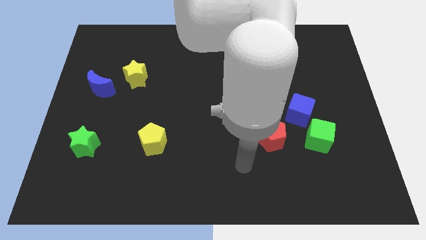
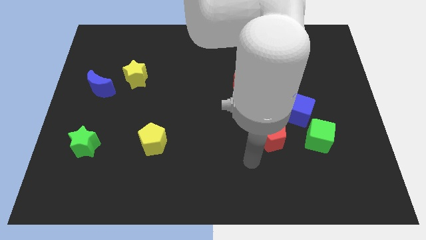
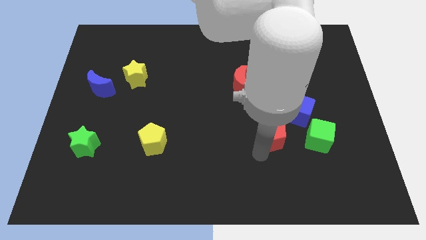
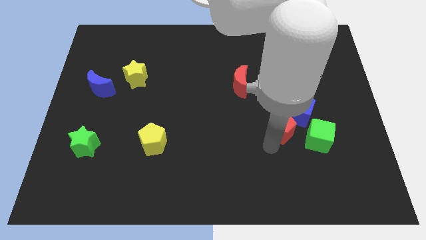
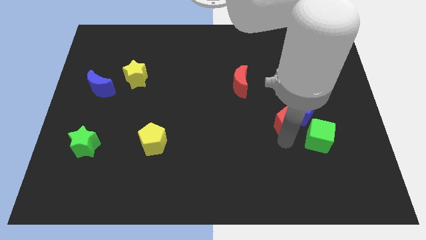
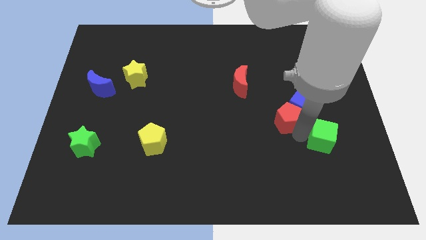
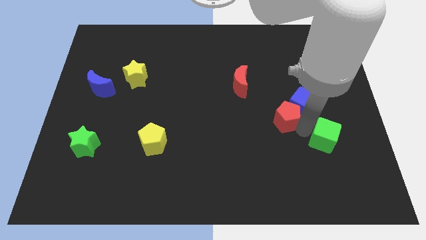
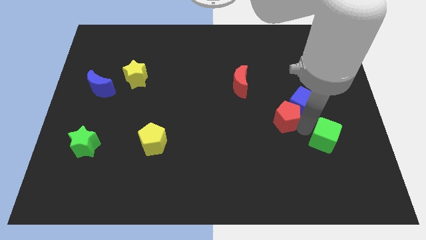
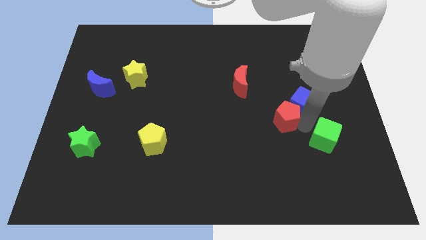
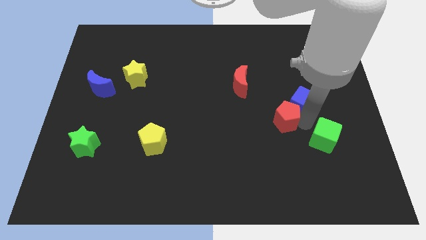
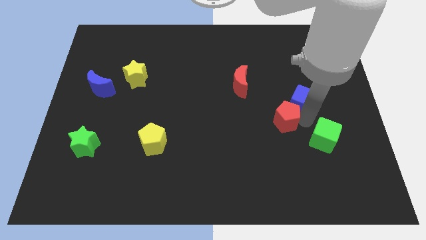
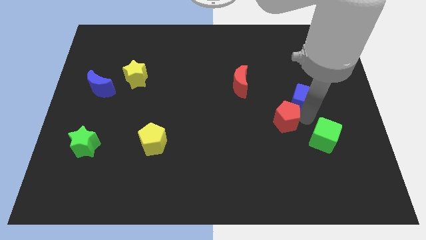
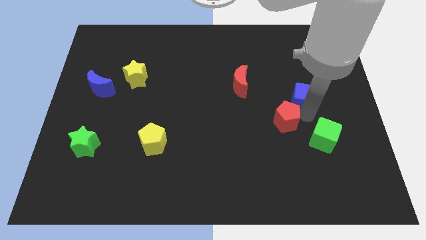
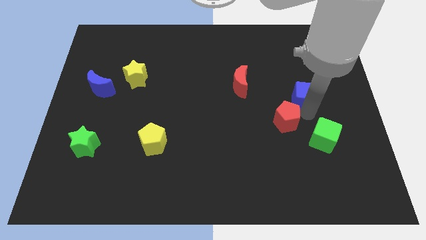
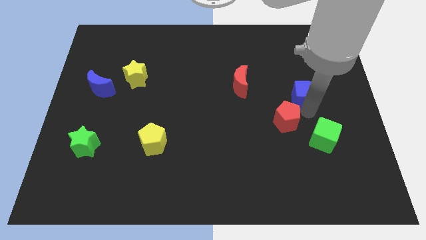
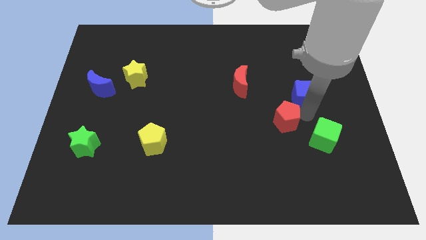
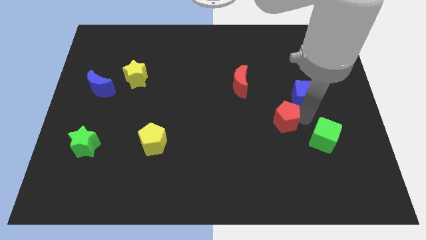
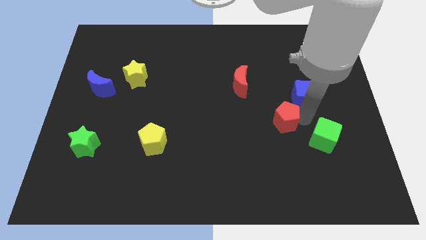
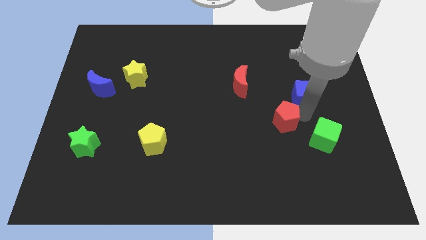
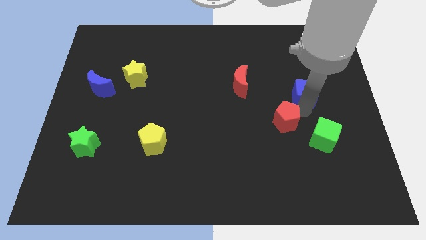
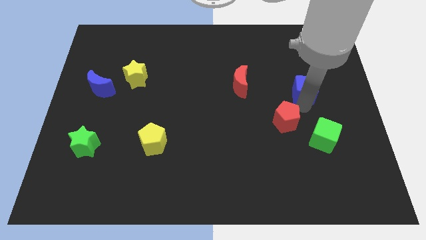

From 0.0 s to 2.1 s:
separate the blue cube from the green cube and red pentagon

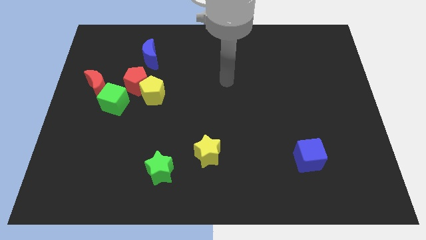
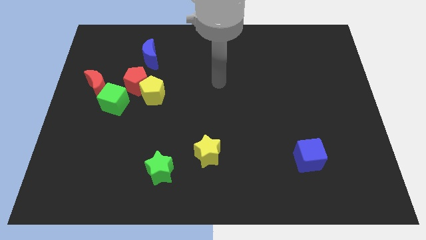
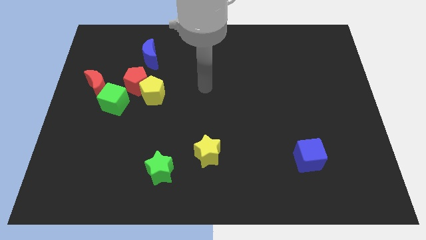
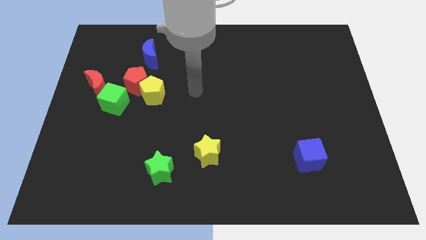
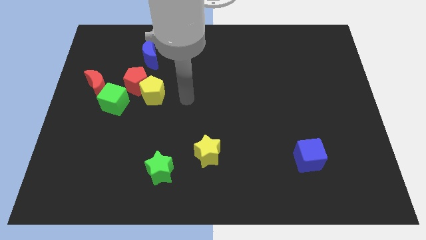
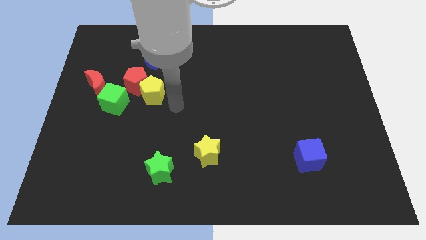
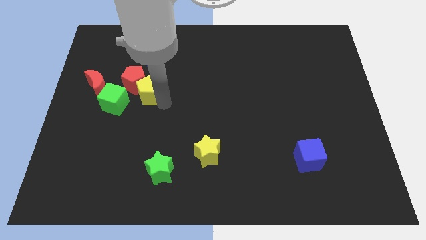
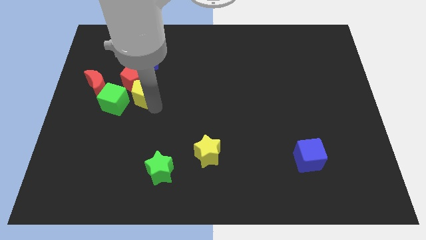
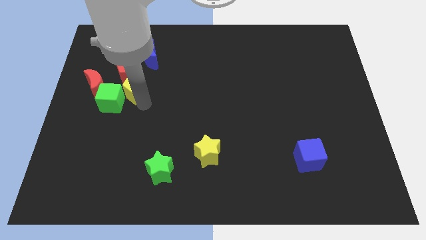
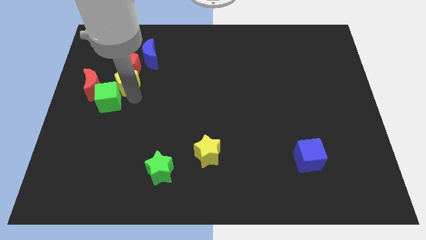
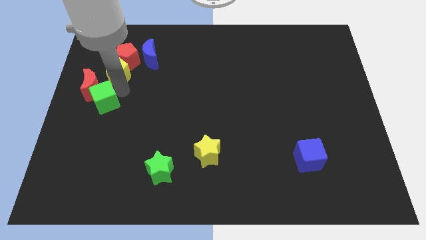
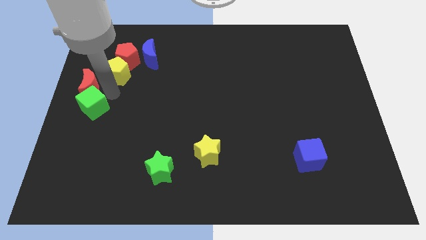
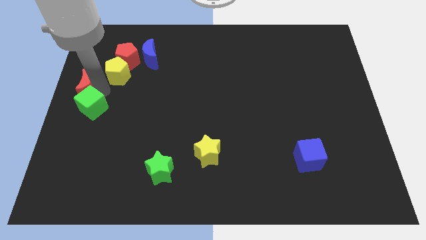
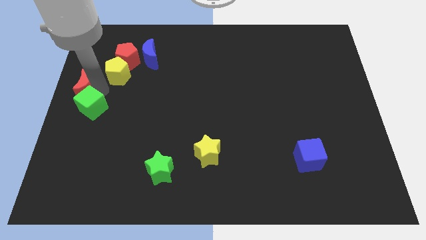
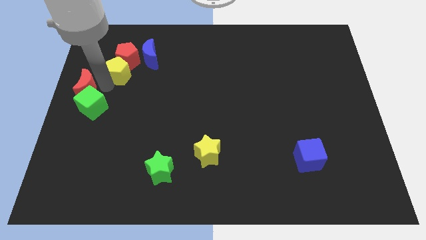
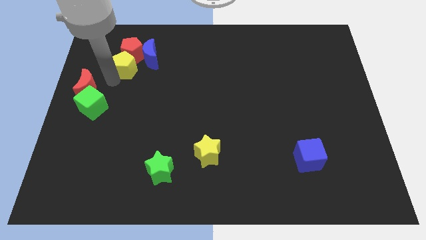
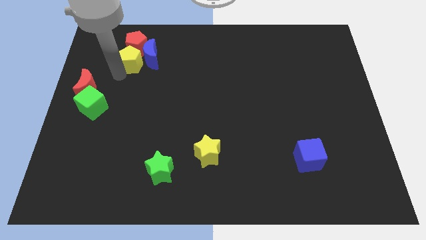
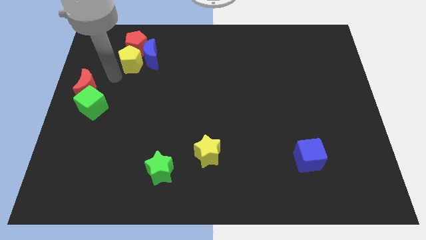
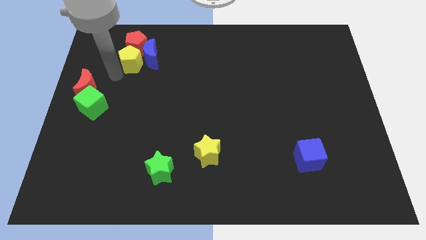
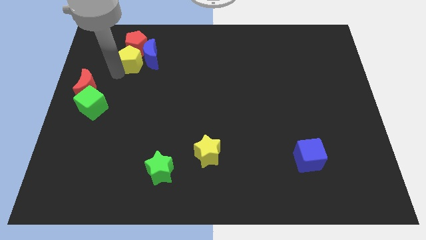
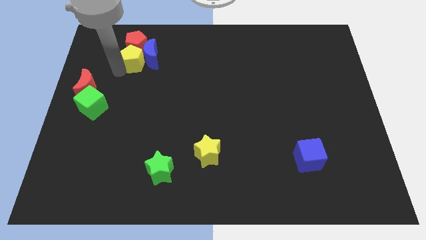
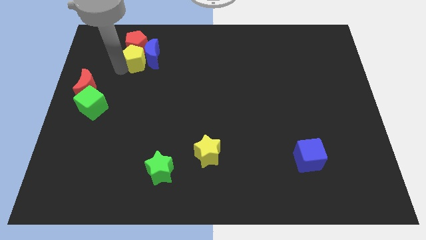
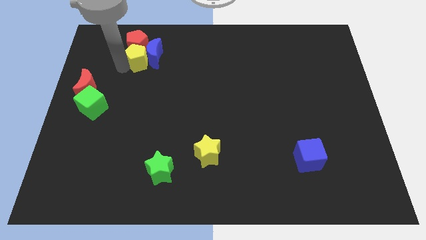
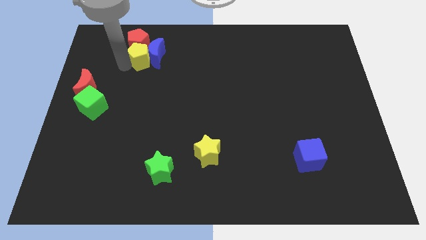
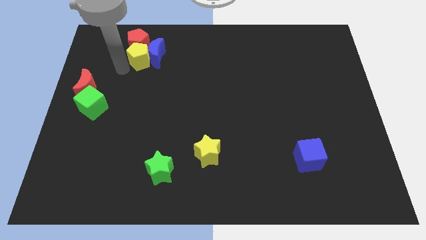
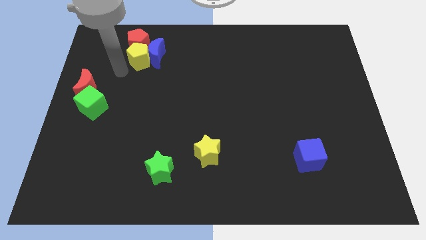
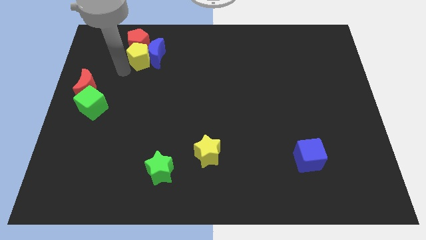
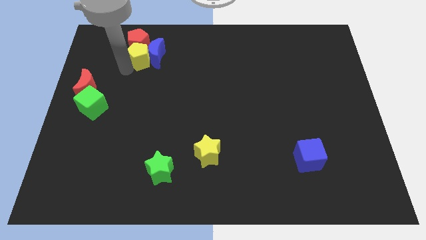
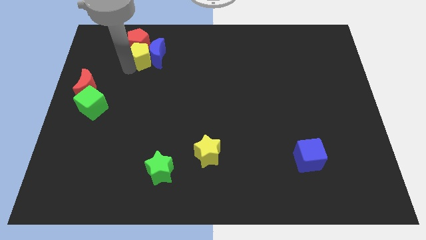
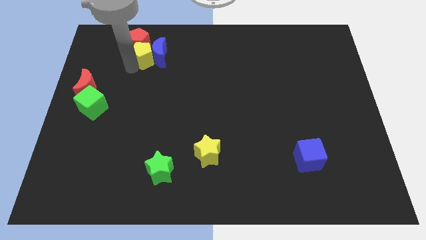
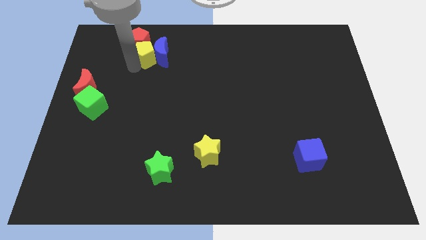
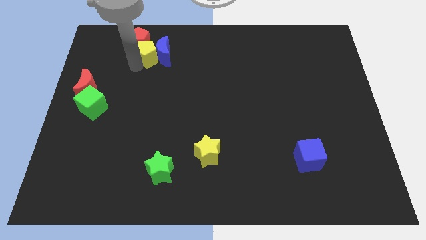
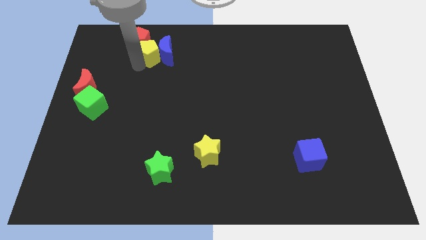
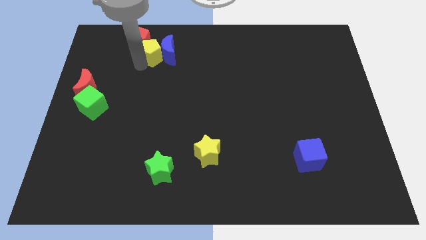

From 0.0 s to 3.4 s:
separate the yellow pentagon from the red pentagon and green cube

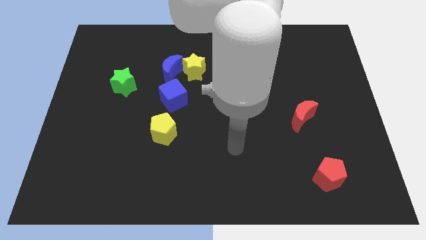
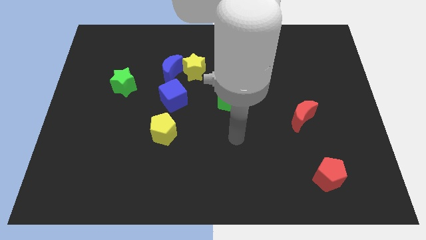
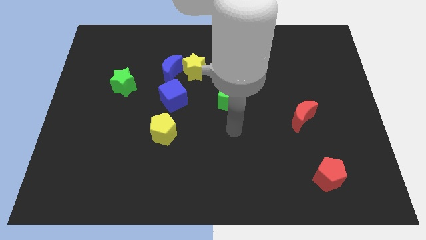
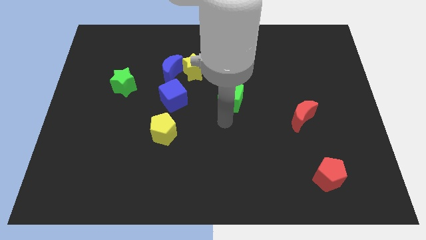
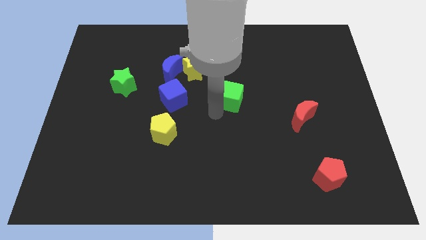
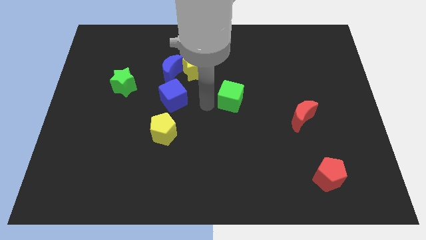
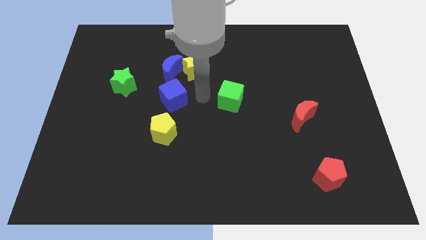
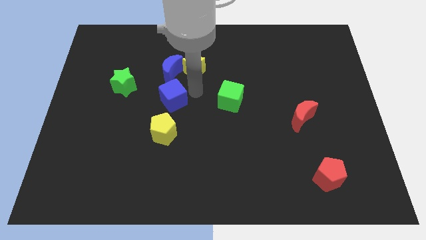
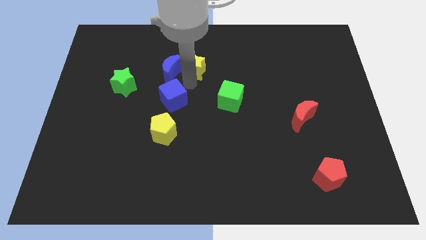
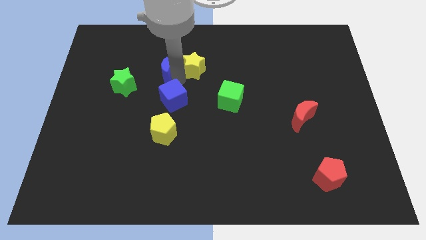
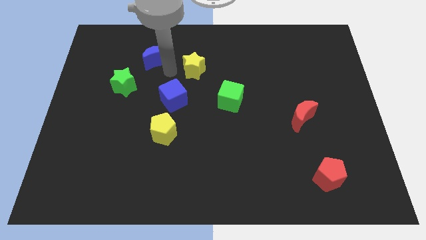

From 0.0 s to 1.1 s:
move the yellow star away from the blue moon

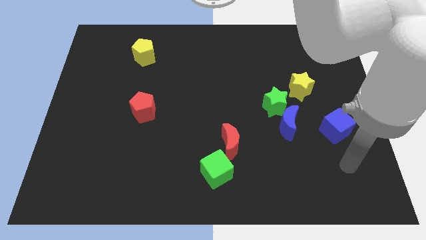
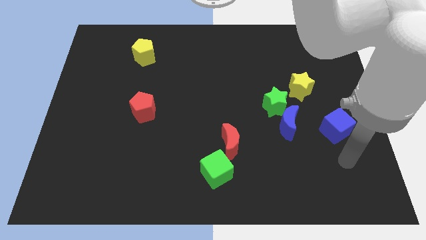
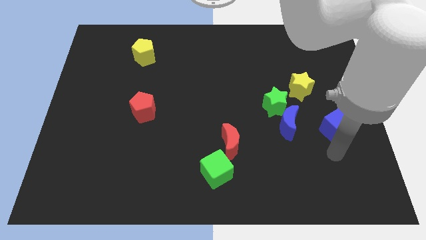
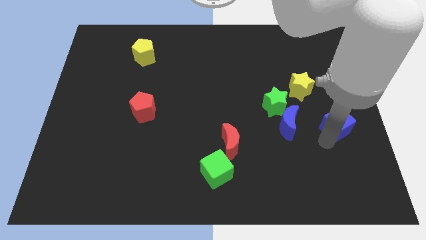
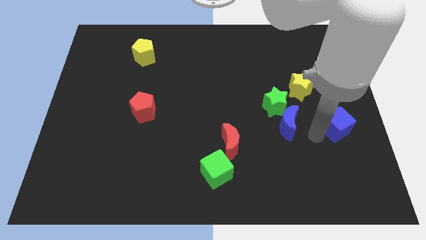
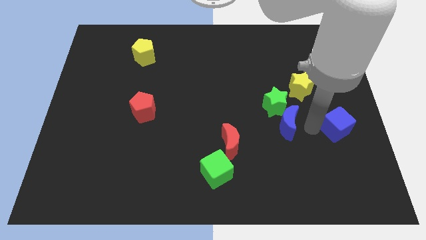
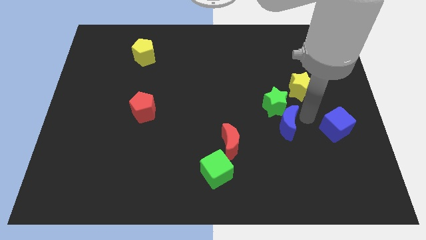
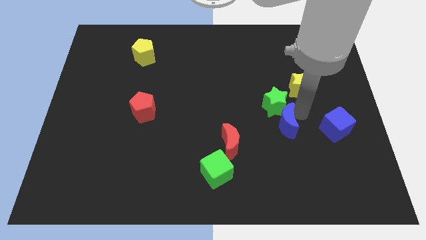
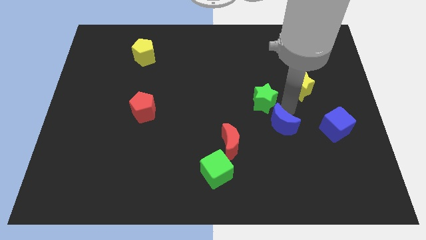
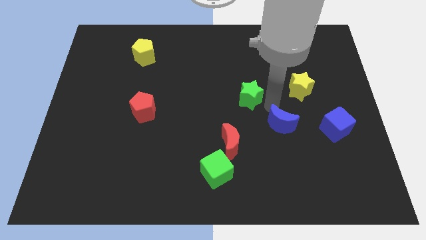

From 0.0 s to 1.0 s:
separate the blue moon from the green star

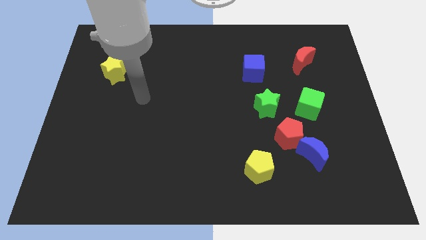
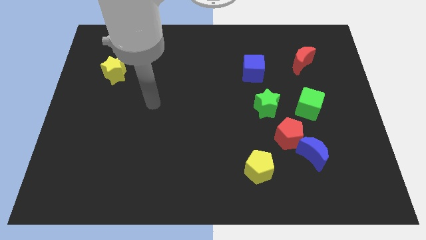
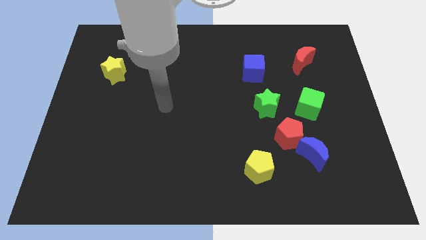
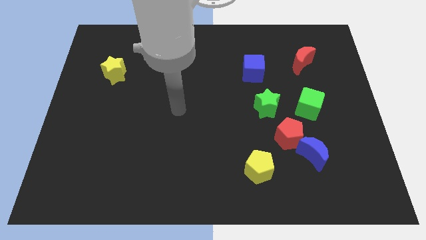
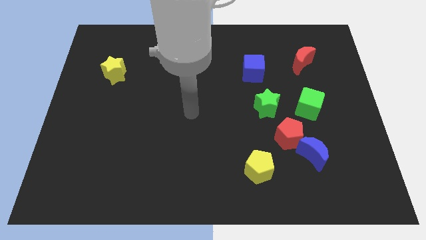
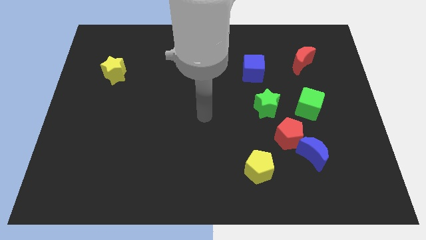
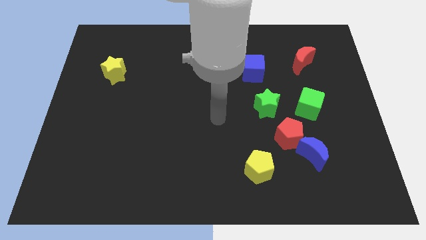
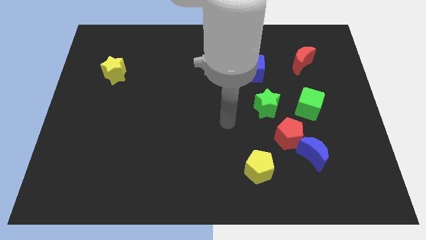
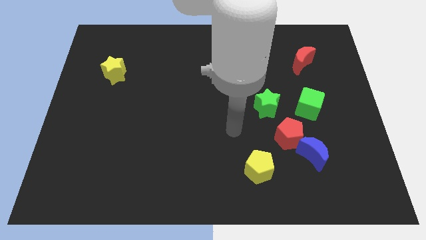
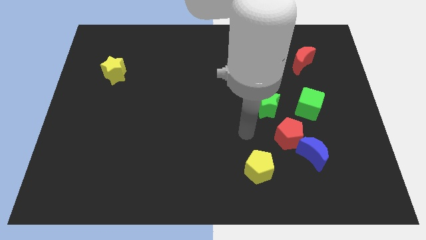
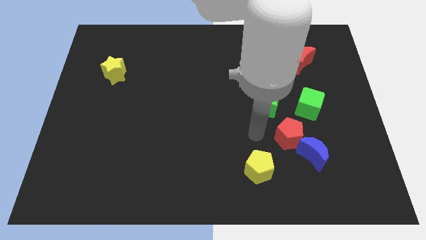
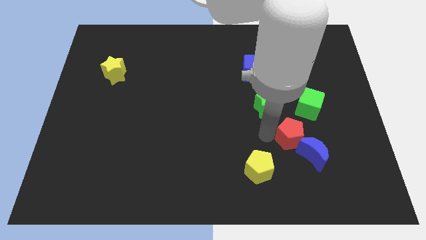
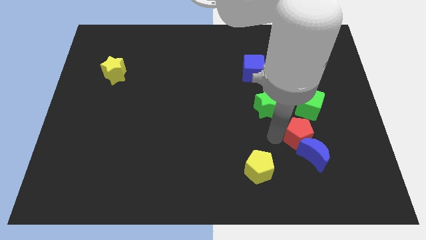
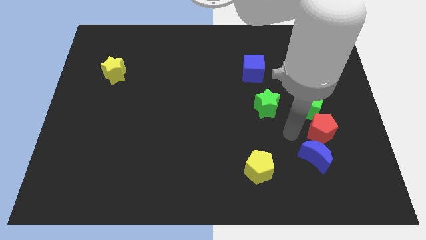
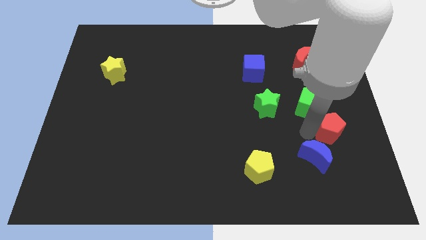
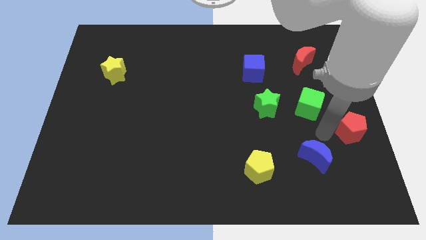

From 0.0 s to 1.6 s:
separate the blue moon from the red pentagon
